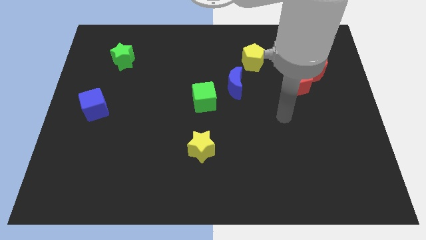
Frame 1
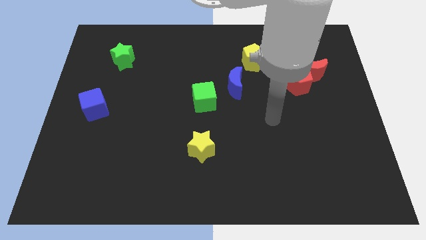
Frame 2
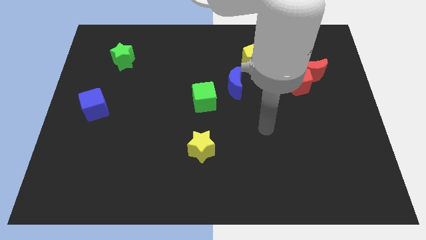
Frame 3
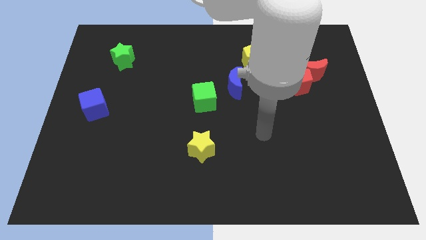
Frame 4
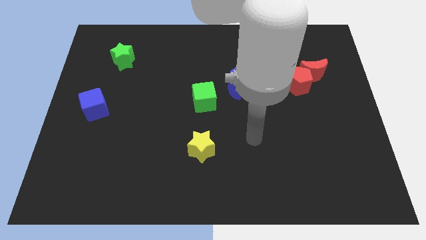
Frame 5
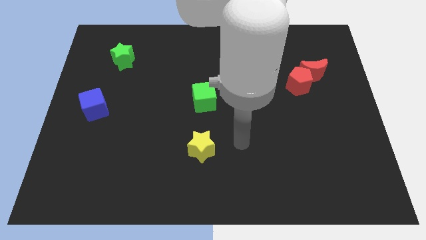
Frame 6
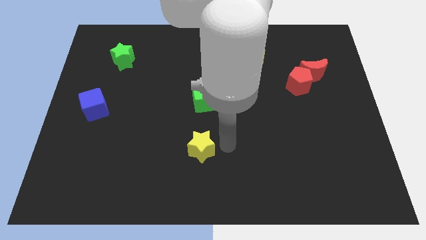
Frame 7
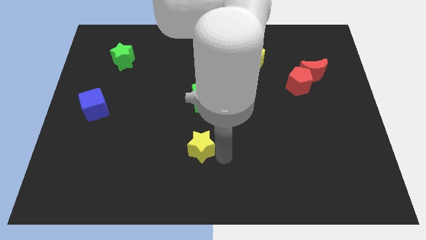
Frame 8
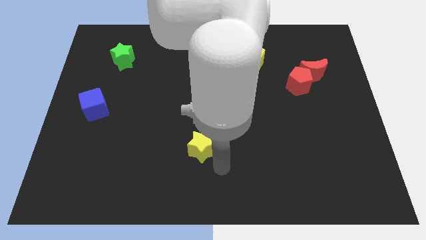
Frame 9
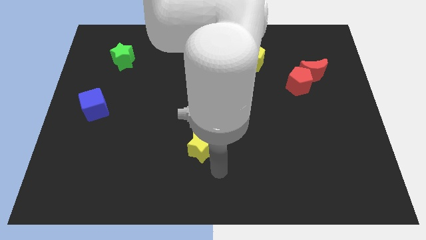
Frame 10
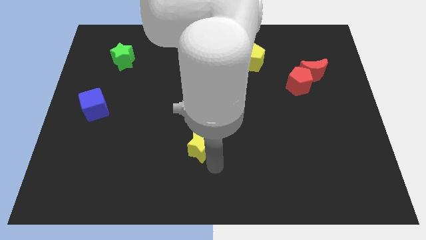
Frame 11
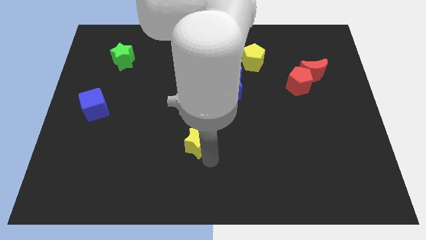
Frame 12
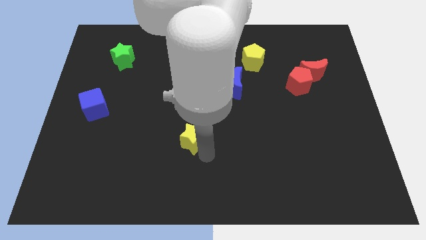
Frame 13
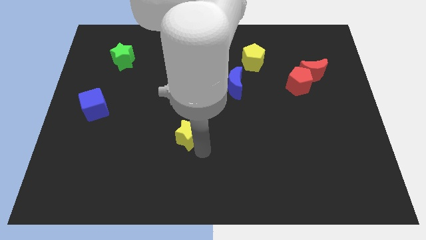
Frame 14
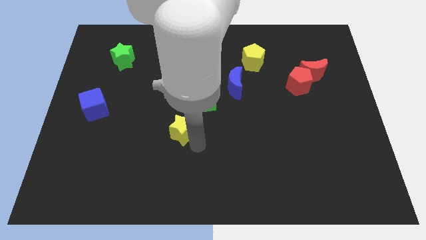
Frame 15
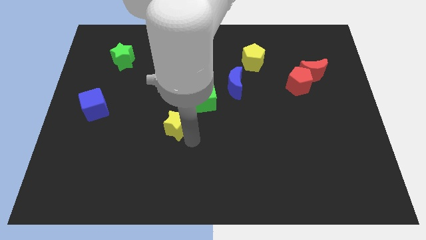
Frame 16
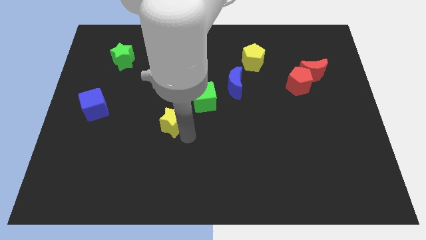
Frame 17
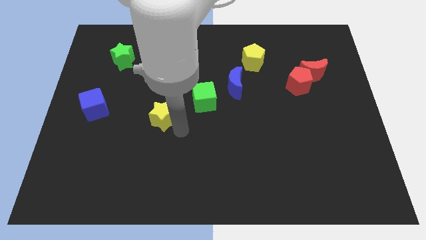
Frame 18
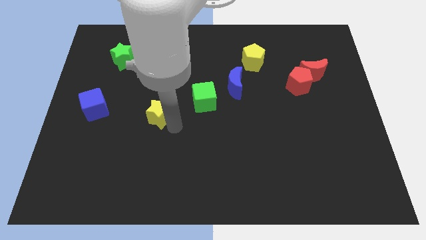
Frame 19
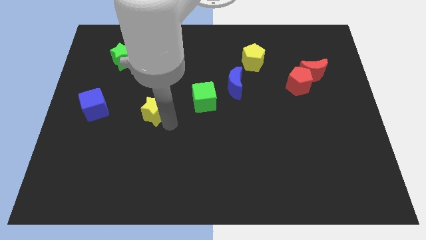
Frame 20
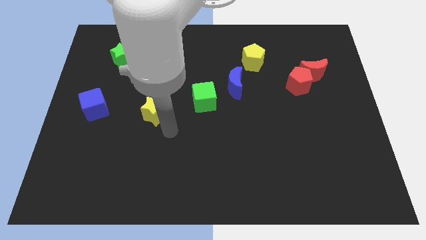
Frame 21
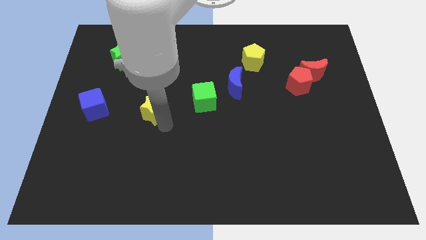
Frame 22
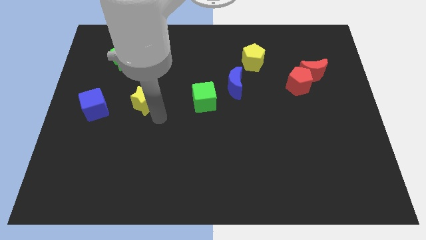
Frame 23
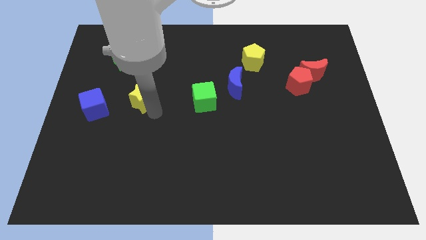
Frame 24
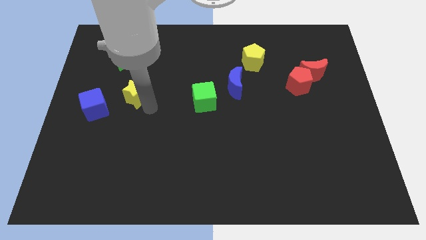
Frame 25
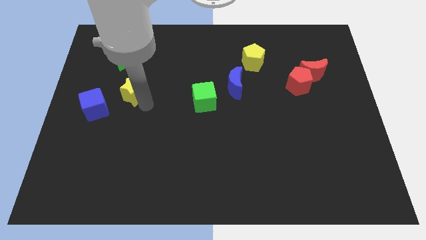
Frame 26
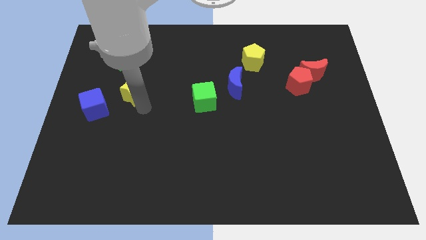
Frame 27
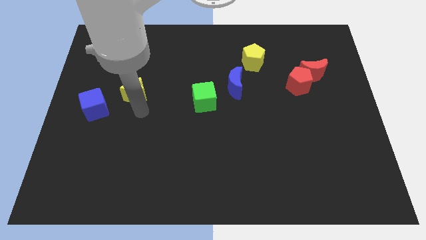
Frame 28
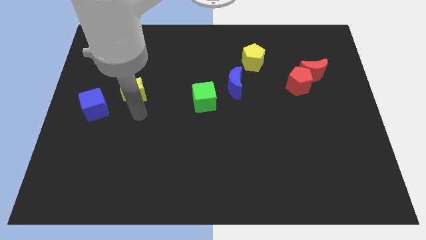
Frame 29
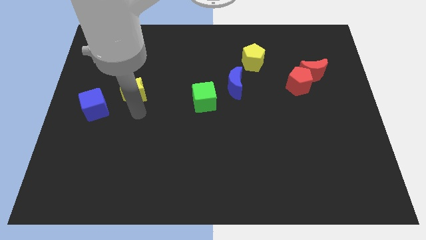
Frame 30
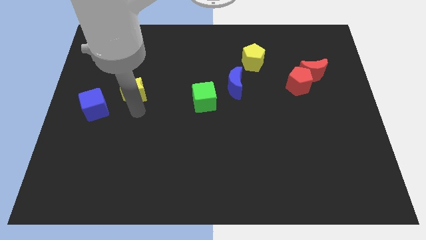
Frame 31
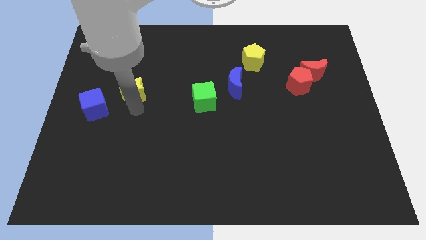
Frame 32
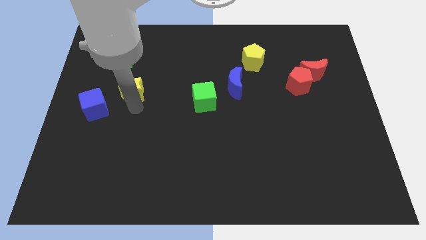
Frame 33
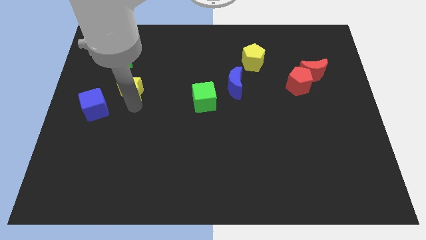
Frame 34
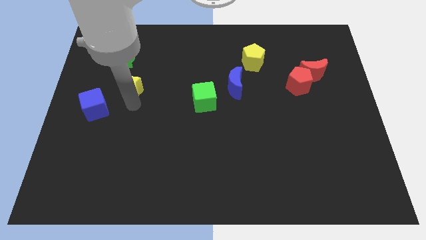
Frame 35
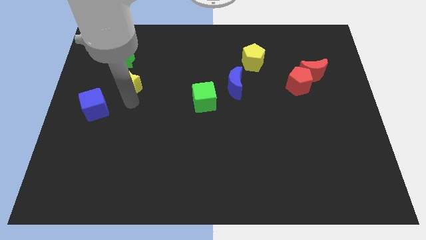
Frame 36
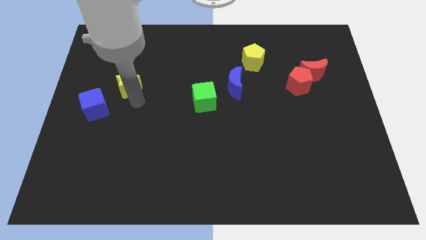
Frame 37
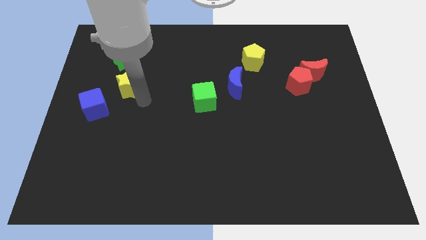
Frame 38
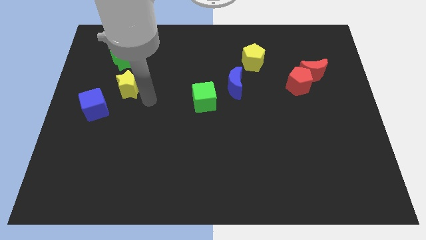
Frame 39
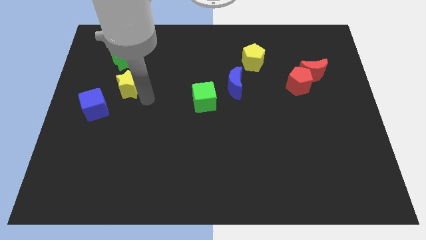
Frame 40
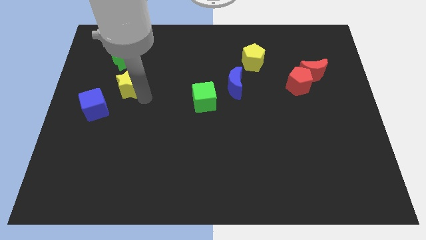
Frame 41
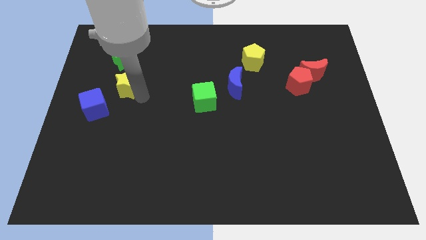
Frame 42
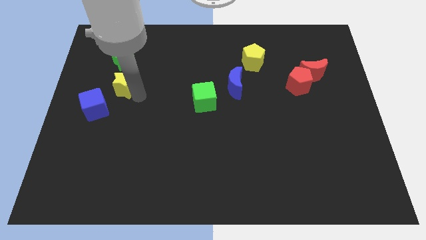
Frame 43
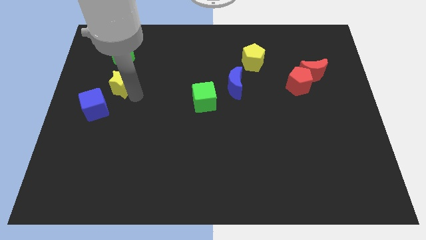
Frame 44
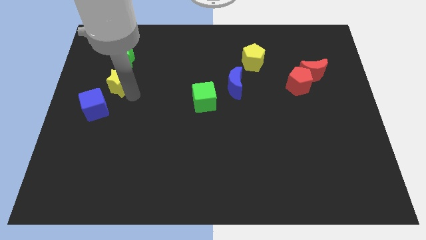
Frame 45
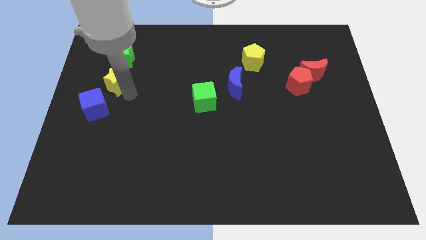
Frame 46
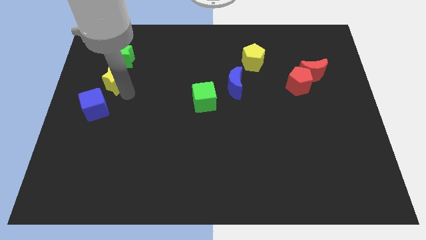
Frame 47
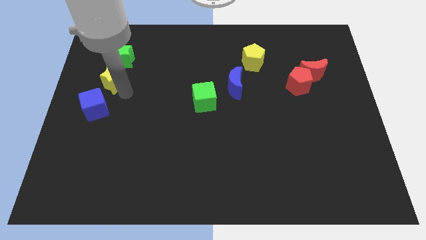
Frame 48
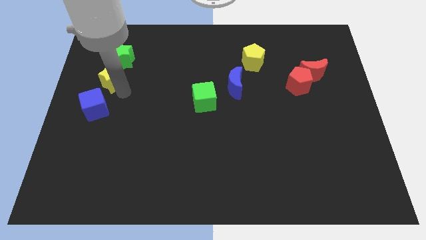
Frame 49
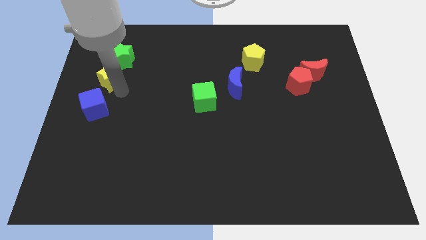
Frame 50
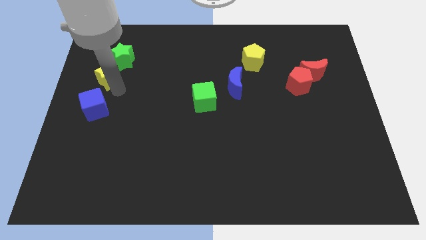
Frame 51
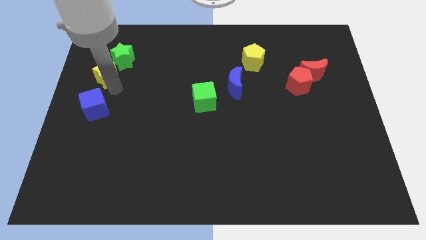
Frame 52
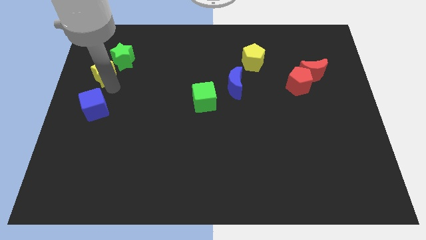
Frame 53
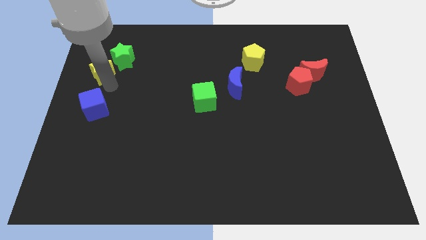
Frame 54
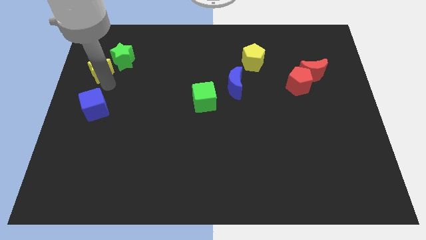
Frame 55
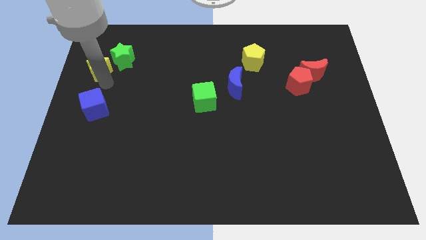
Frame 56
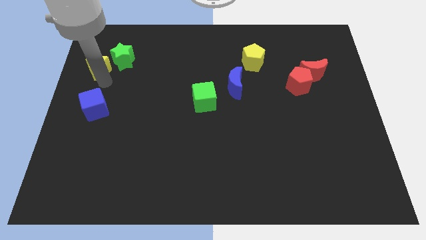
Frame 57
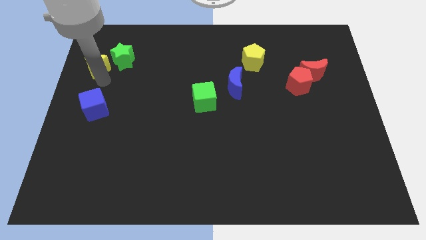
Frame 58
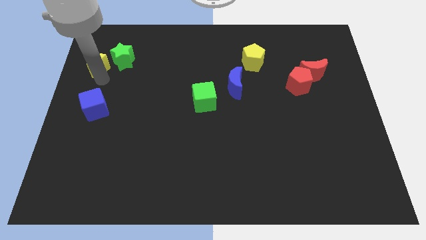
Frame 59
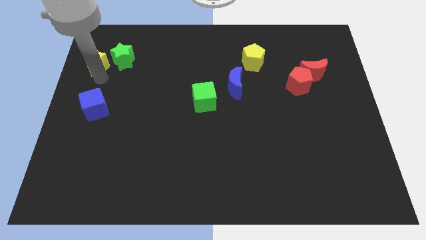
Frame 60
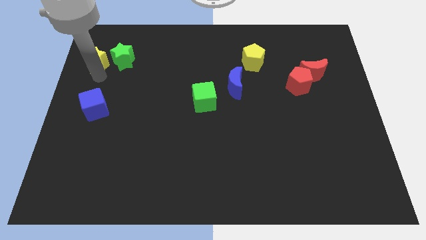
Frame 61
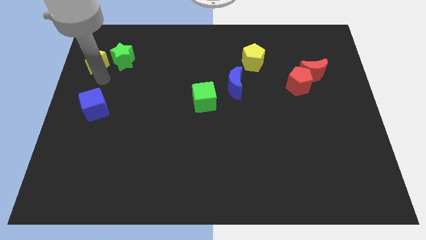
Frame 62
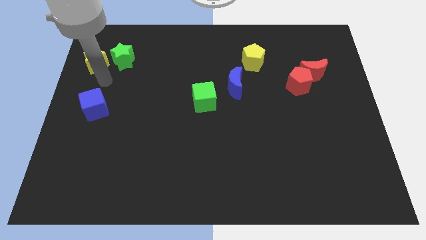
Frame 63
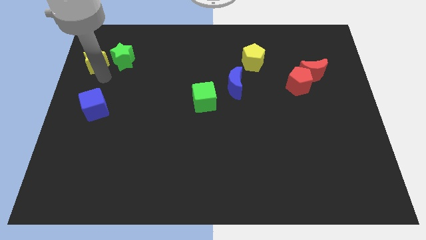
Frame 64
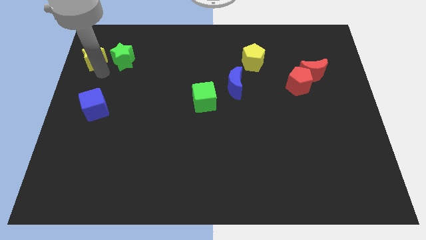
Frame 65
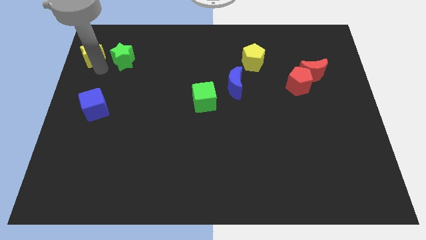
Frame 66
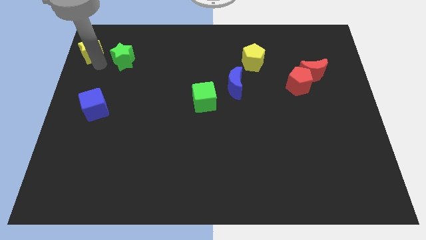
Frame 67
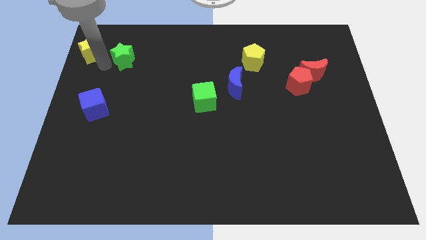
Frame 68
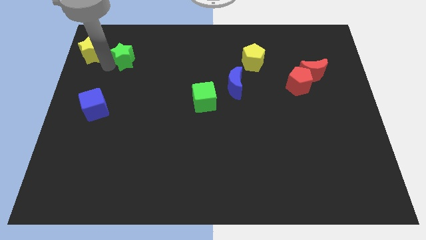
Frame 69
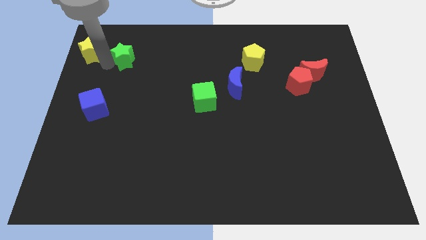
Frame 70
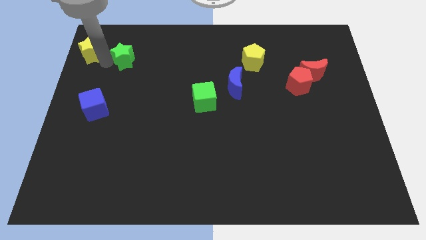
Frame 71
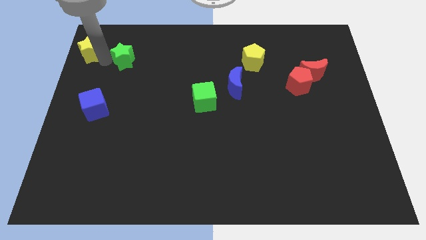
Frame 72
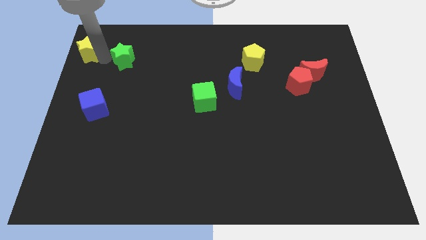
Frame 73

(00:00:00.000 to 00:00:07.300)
move the yellow star to the top left of the board

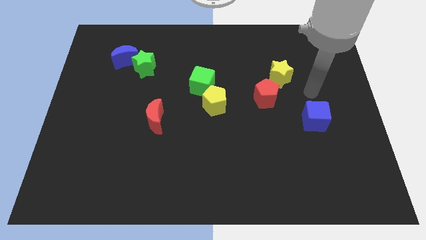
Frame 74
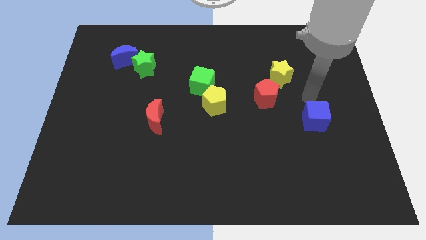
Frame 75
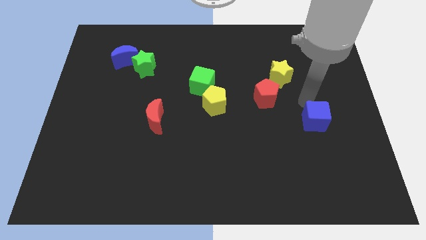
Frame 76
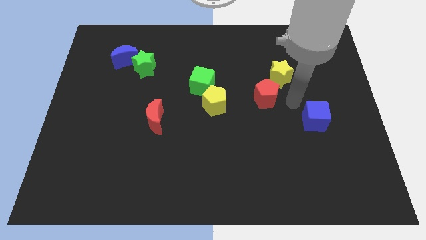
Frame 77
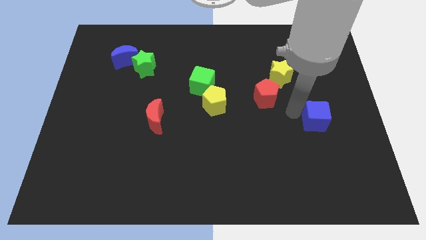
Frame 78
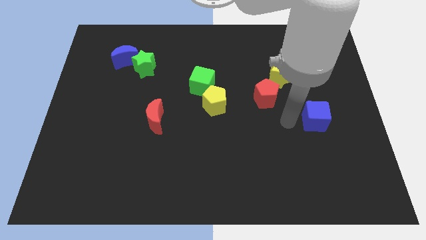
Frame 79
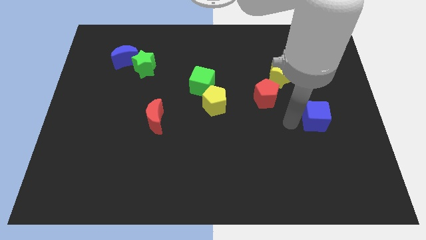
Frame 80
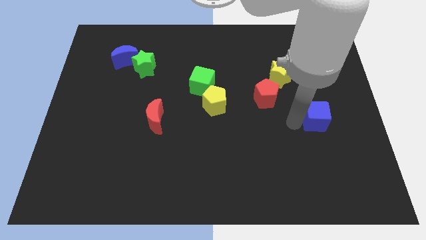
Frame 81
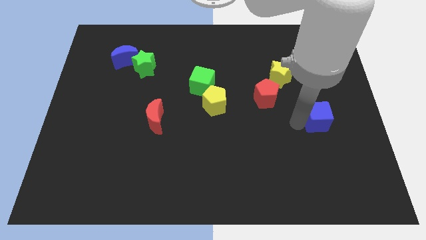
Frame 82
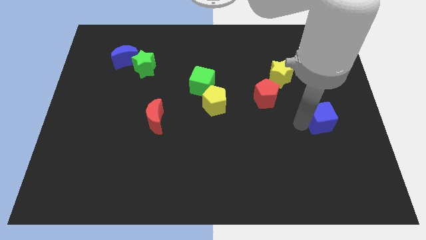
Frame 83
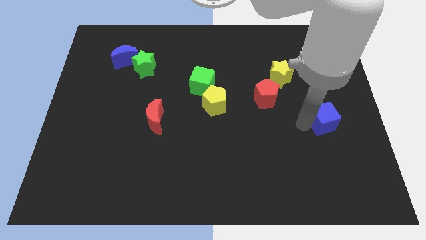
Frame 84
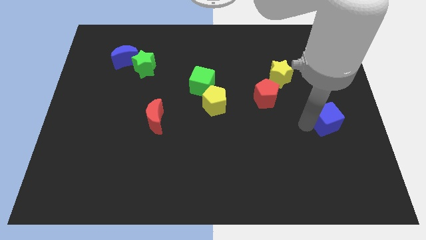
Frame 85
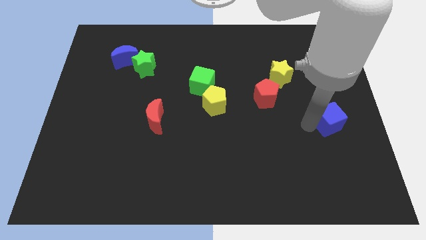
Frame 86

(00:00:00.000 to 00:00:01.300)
move the blue cube to the right side of the board
